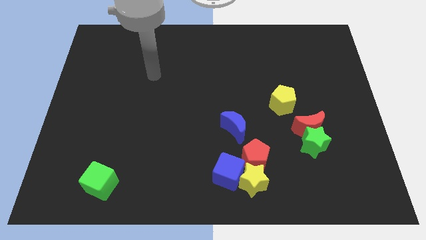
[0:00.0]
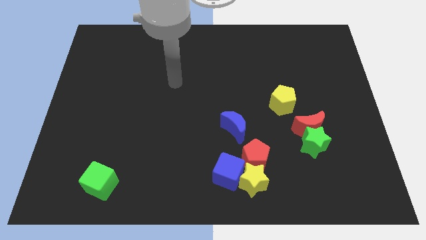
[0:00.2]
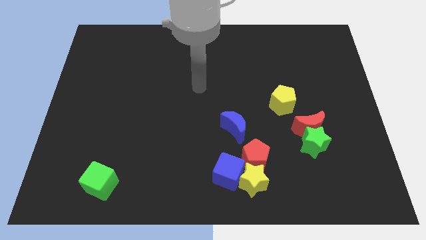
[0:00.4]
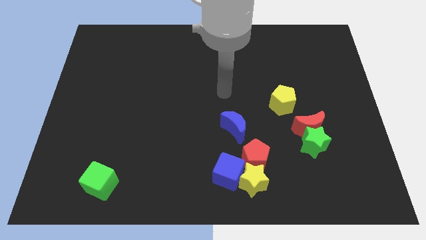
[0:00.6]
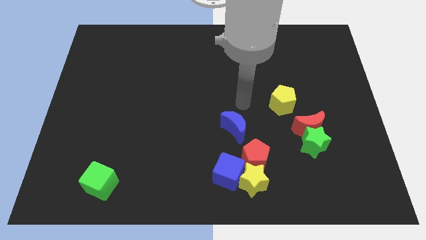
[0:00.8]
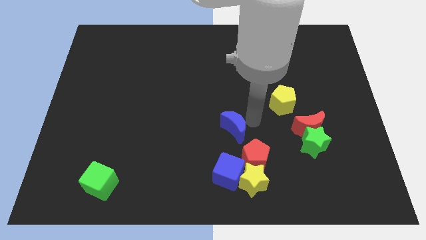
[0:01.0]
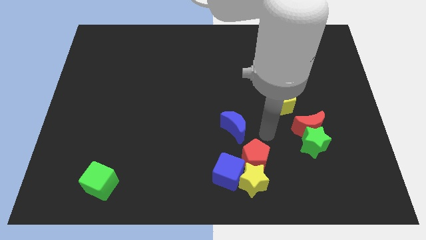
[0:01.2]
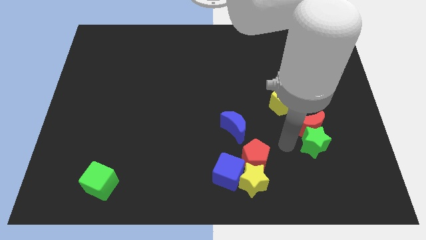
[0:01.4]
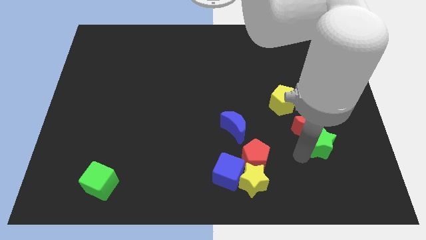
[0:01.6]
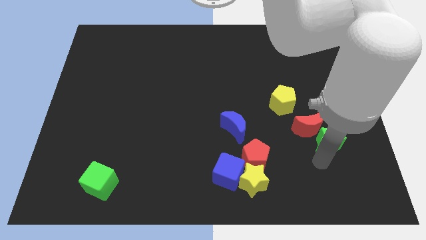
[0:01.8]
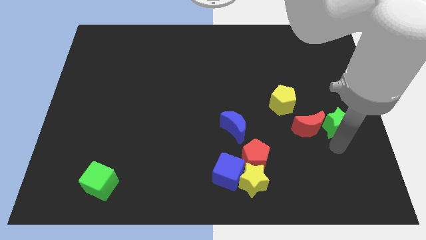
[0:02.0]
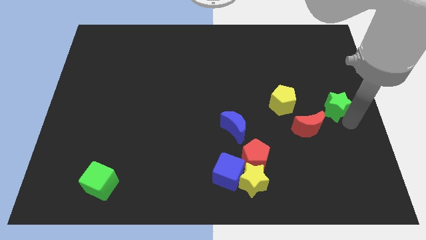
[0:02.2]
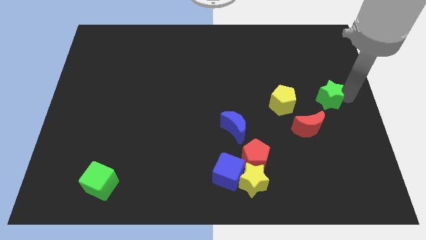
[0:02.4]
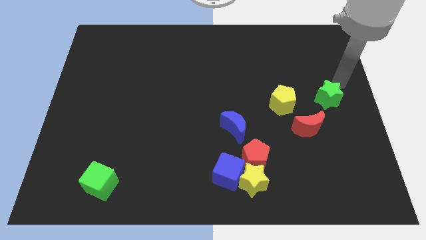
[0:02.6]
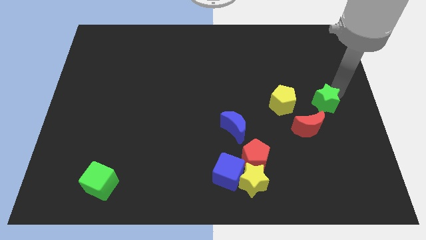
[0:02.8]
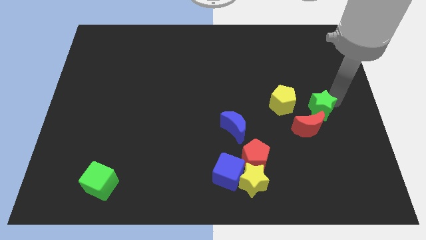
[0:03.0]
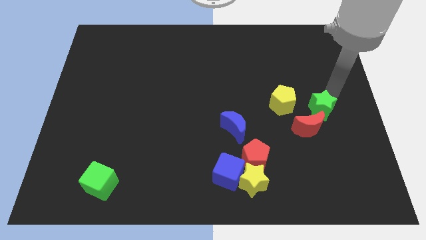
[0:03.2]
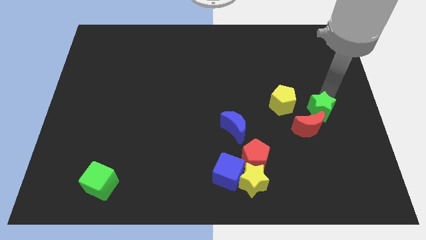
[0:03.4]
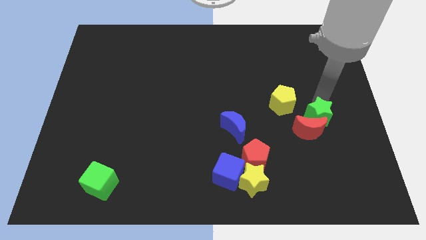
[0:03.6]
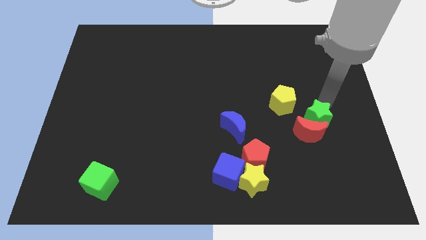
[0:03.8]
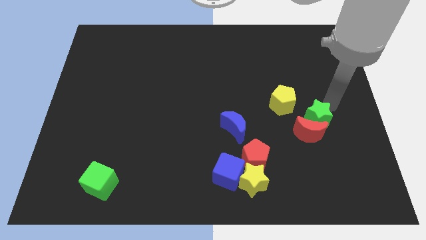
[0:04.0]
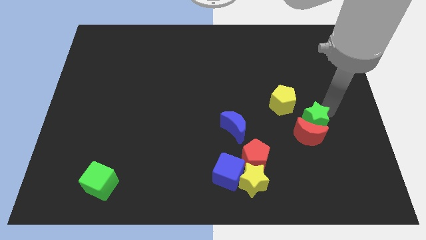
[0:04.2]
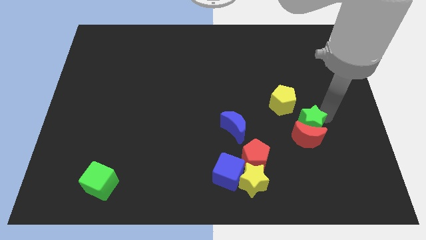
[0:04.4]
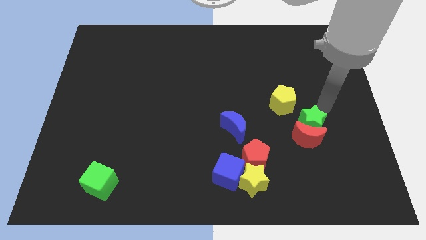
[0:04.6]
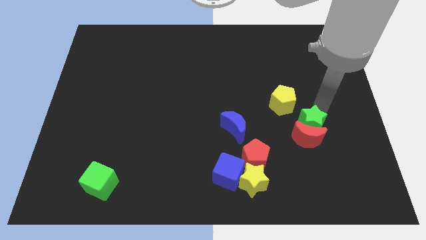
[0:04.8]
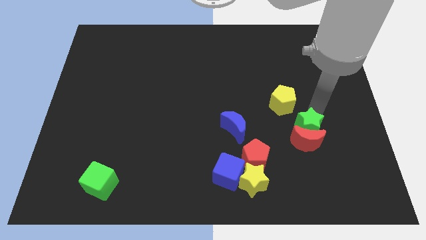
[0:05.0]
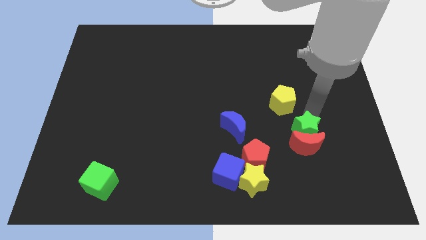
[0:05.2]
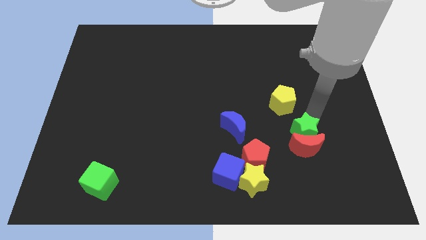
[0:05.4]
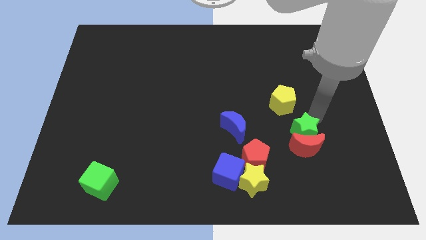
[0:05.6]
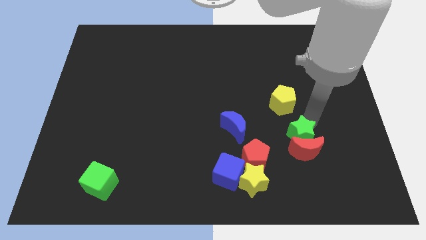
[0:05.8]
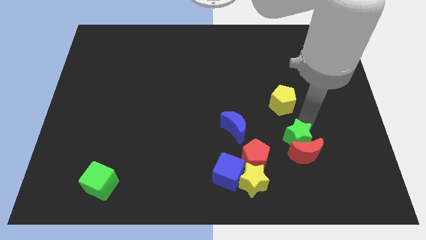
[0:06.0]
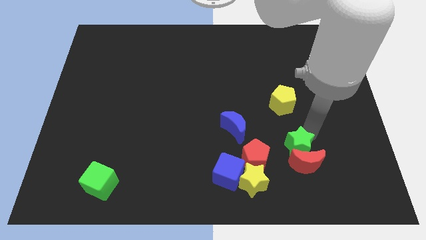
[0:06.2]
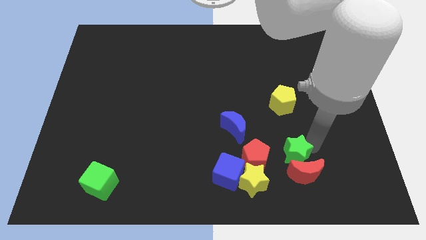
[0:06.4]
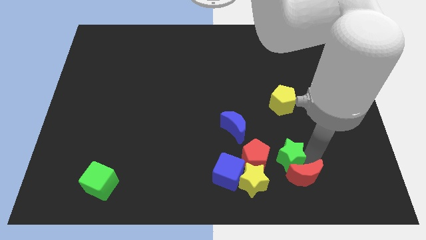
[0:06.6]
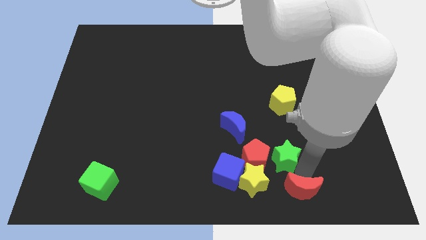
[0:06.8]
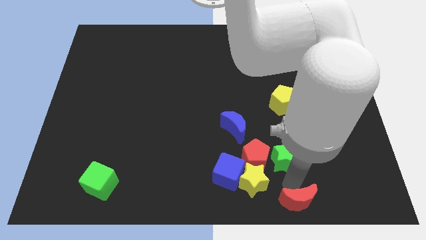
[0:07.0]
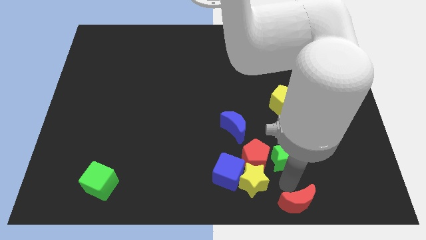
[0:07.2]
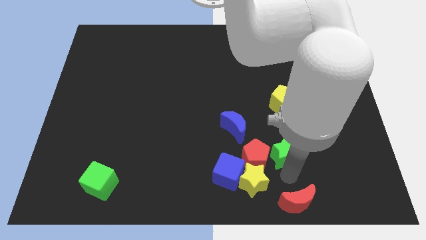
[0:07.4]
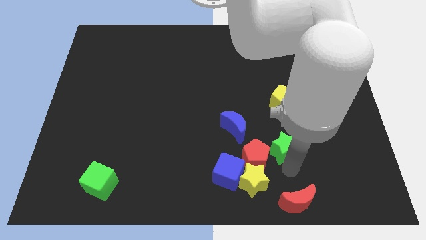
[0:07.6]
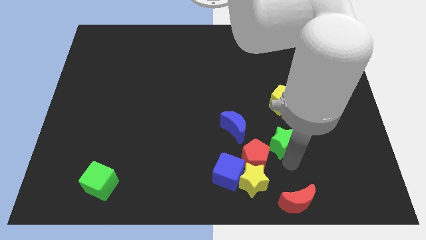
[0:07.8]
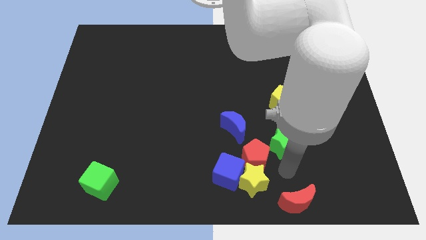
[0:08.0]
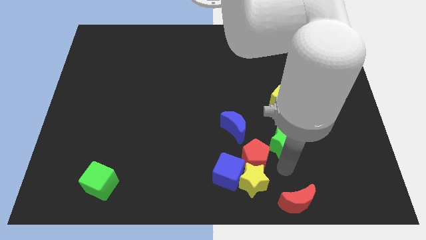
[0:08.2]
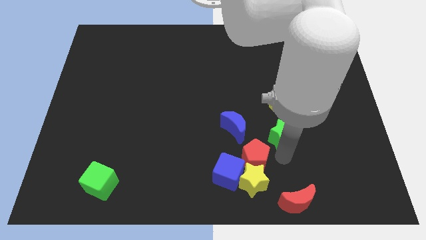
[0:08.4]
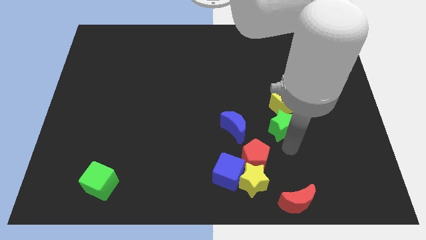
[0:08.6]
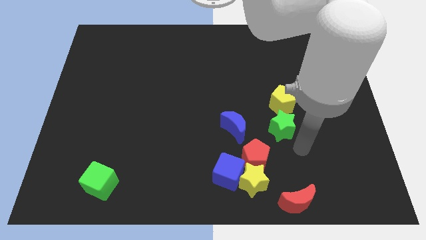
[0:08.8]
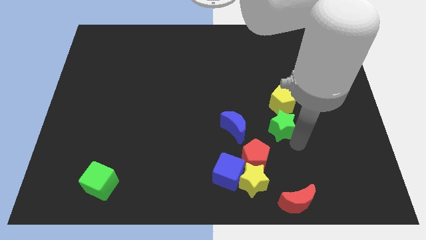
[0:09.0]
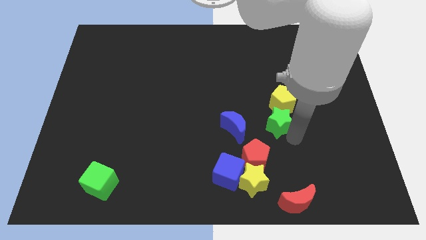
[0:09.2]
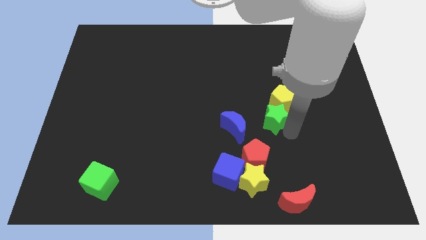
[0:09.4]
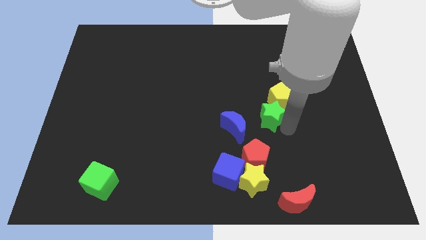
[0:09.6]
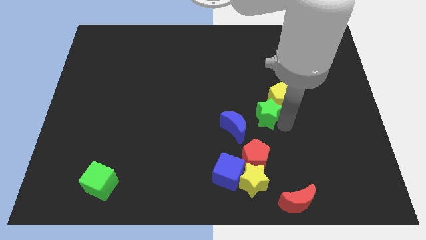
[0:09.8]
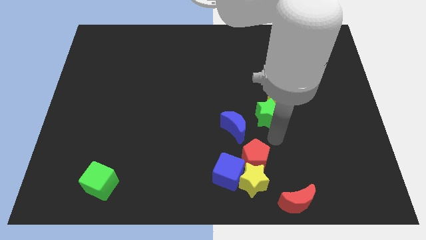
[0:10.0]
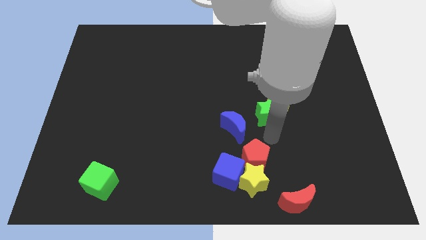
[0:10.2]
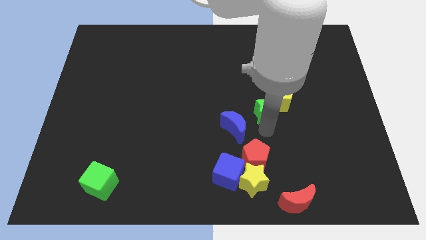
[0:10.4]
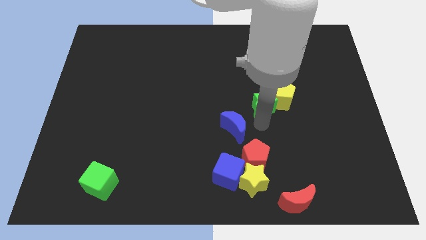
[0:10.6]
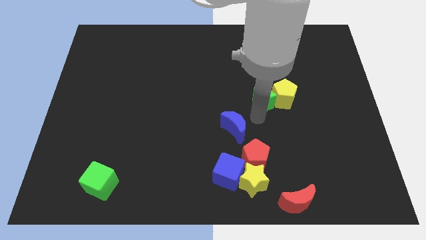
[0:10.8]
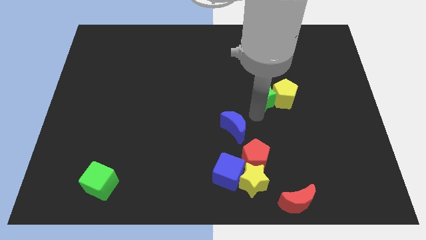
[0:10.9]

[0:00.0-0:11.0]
slide the green star to the top left of the yellow pentagon

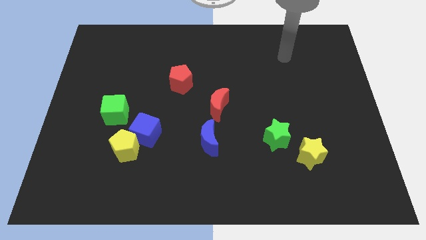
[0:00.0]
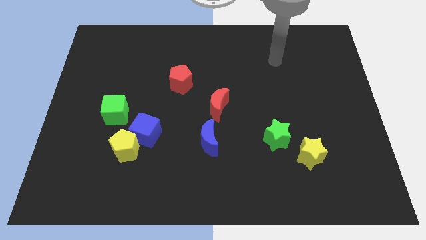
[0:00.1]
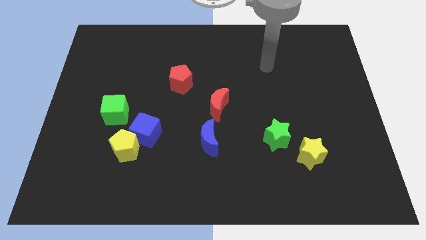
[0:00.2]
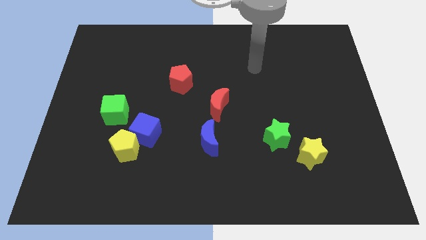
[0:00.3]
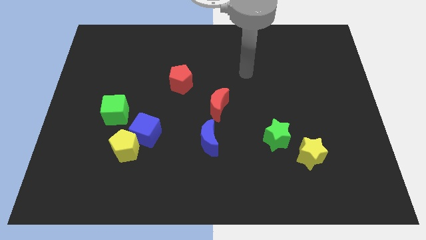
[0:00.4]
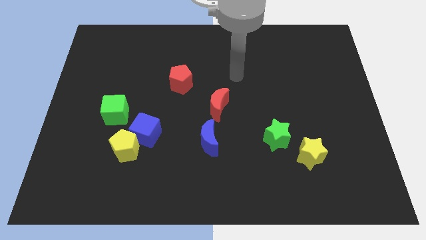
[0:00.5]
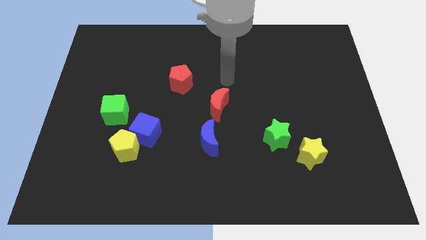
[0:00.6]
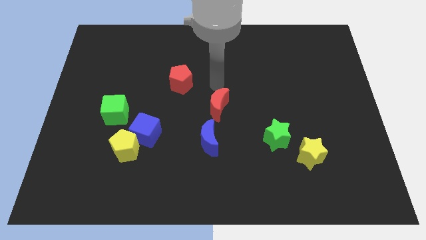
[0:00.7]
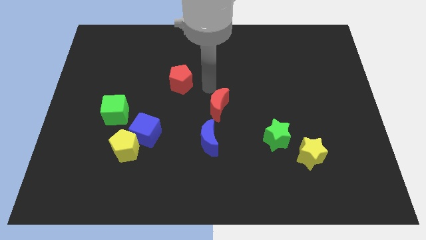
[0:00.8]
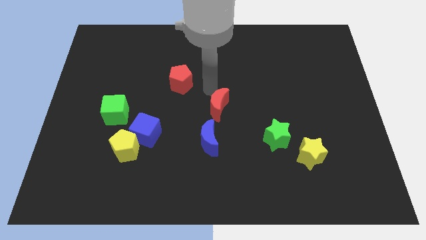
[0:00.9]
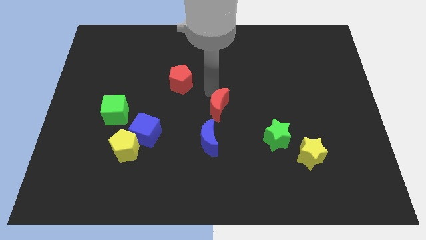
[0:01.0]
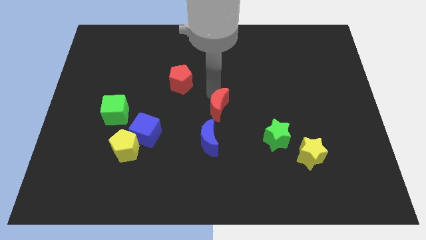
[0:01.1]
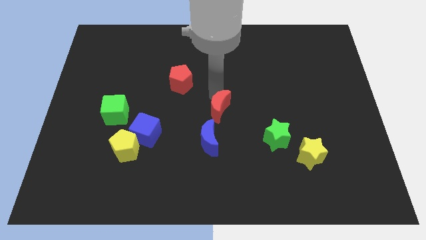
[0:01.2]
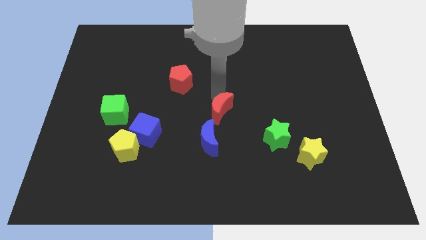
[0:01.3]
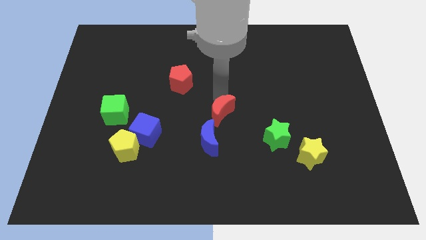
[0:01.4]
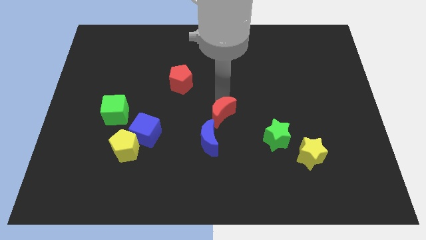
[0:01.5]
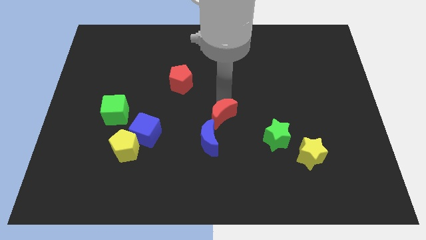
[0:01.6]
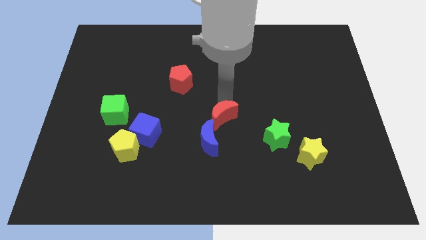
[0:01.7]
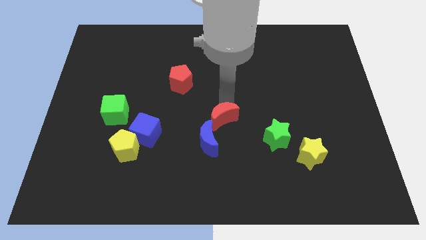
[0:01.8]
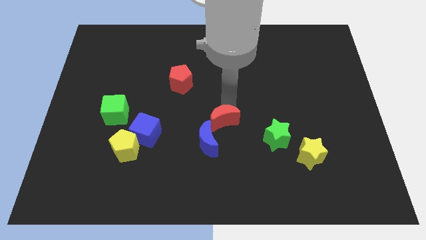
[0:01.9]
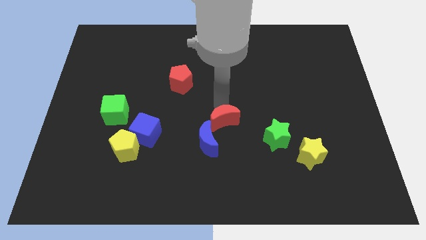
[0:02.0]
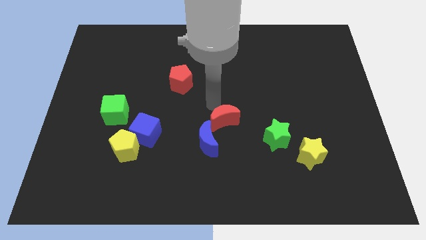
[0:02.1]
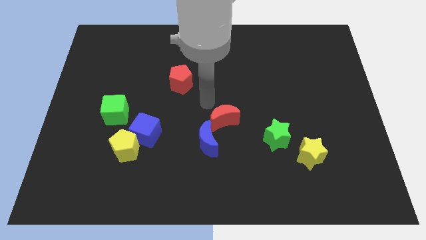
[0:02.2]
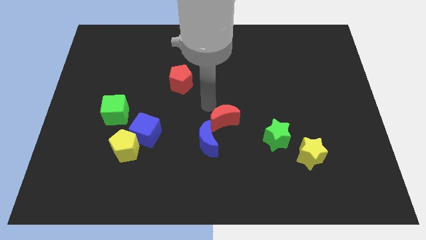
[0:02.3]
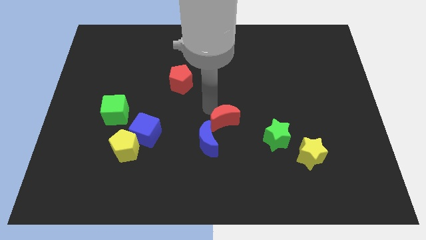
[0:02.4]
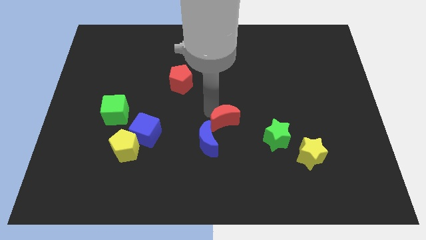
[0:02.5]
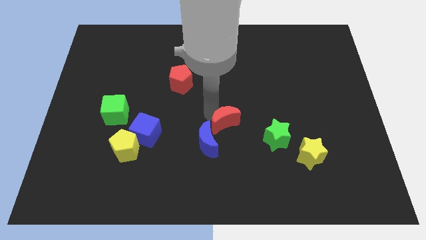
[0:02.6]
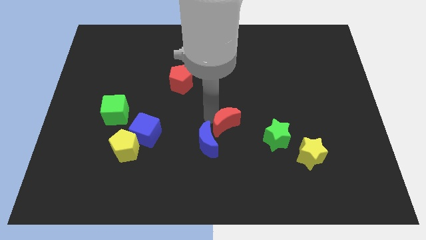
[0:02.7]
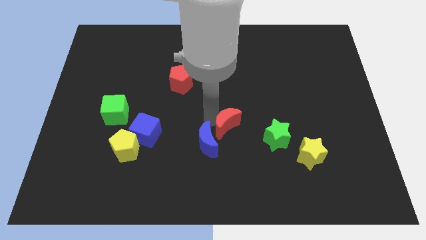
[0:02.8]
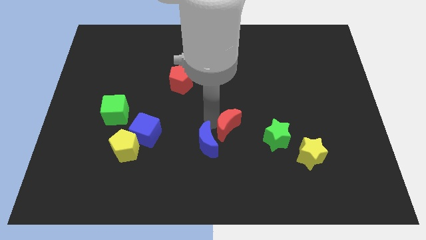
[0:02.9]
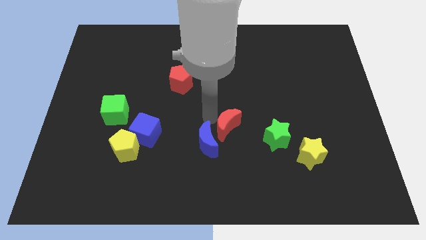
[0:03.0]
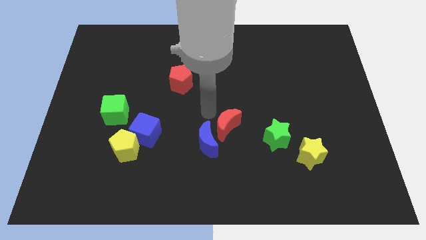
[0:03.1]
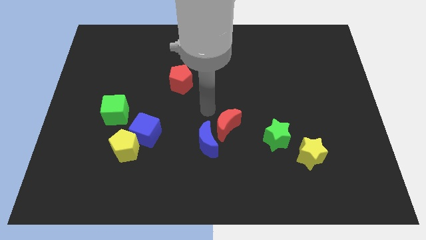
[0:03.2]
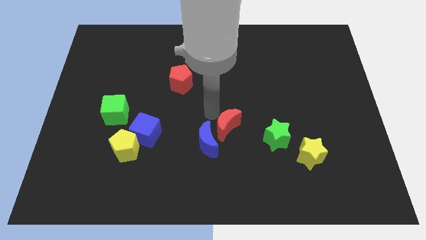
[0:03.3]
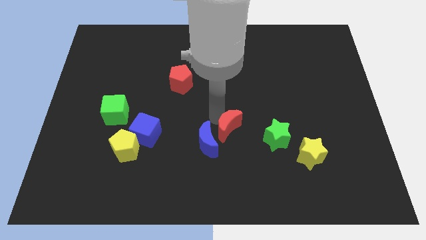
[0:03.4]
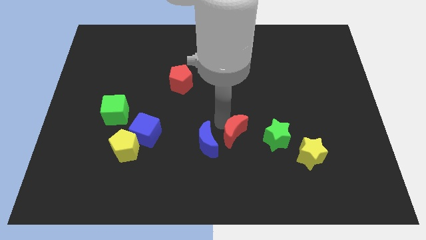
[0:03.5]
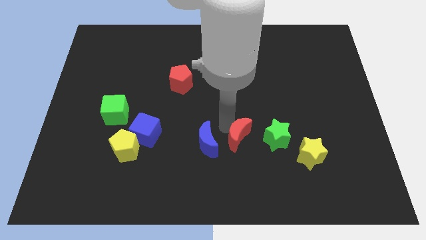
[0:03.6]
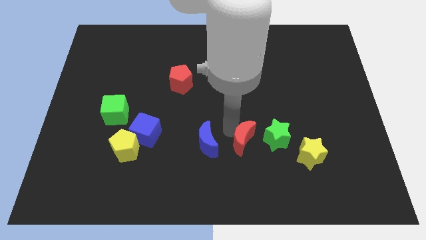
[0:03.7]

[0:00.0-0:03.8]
put the red moon to the left side of the yellow star
